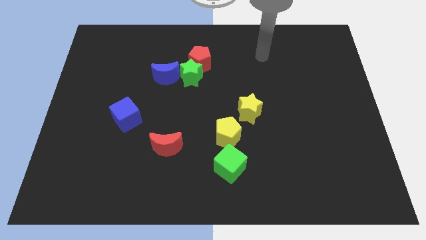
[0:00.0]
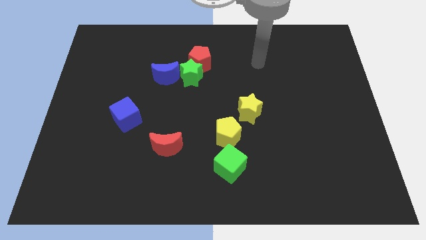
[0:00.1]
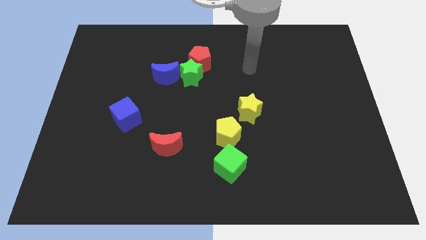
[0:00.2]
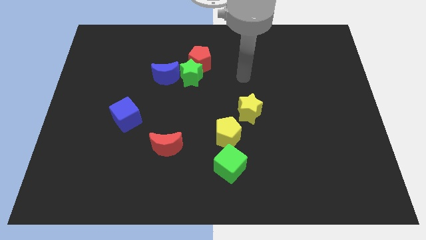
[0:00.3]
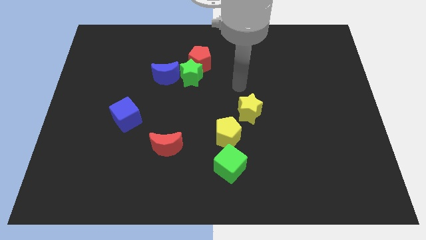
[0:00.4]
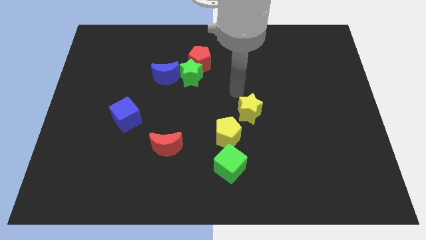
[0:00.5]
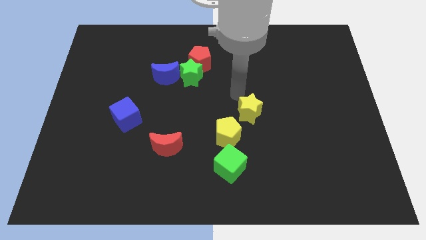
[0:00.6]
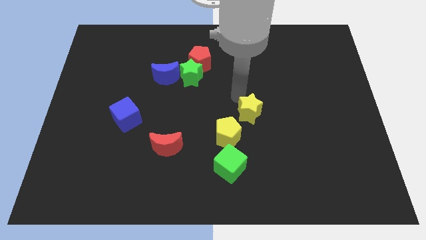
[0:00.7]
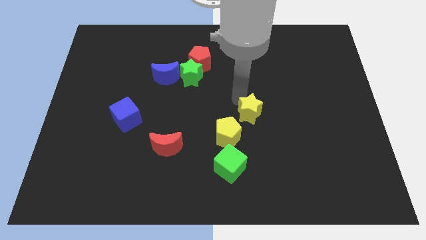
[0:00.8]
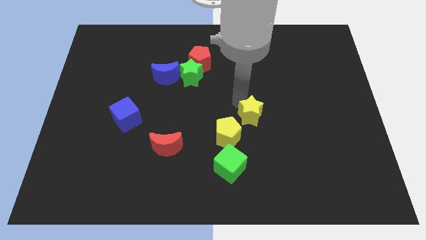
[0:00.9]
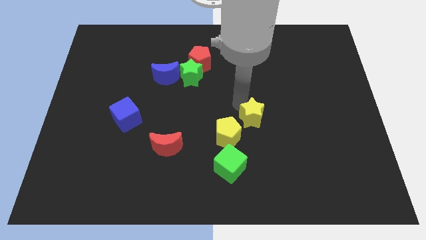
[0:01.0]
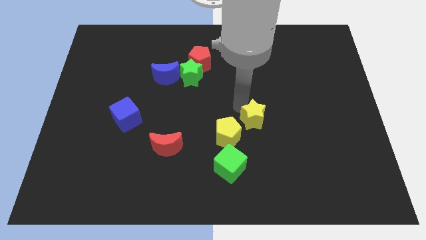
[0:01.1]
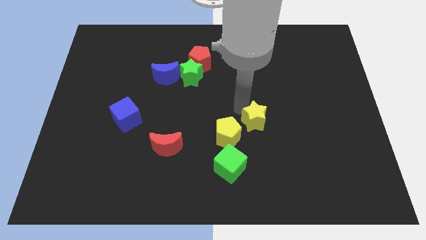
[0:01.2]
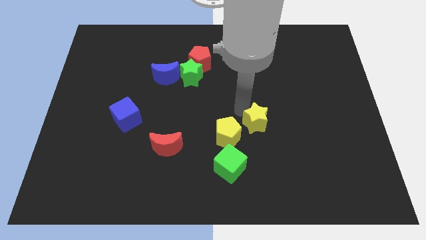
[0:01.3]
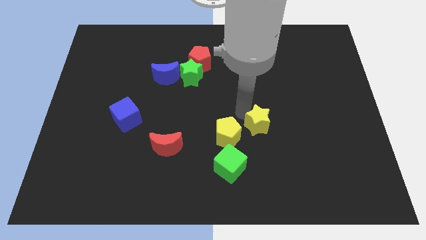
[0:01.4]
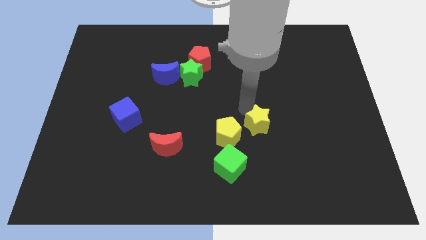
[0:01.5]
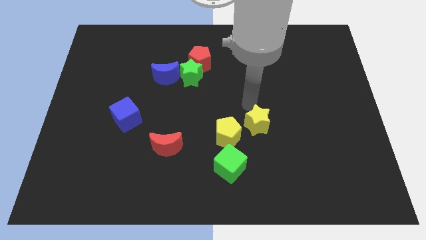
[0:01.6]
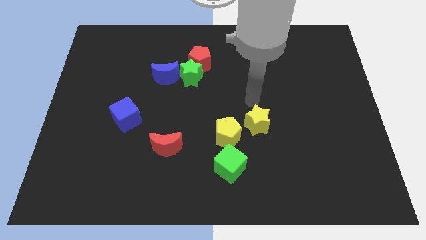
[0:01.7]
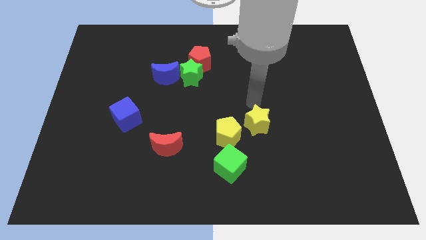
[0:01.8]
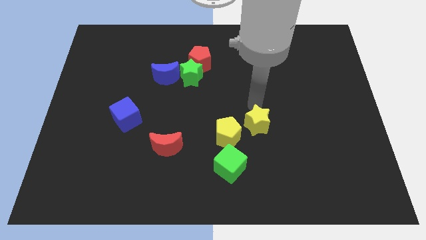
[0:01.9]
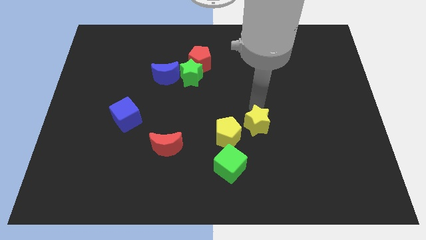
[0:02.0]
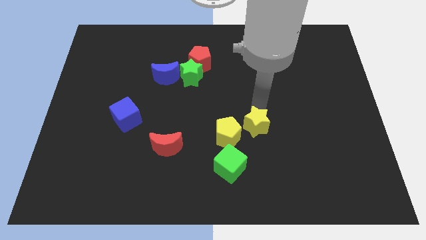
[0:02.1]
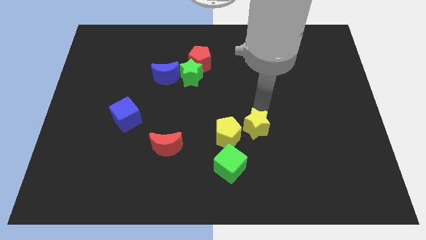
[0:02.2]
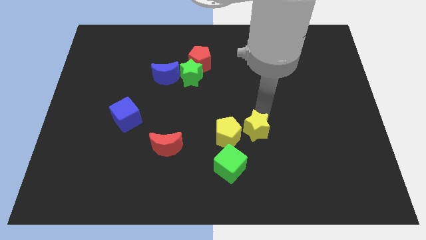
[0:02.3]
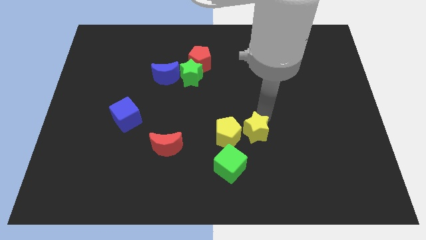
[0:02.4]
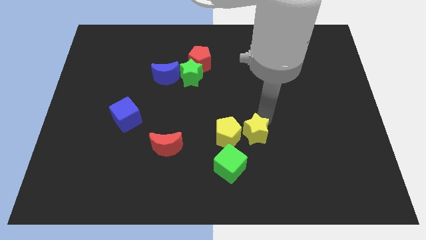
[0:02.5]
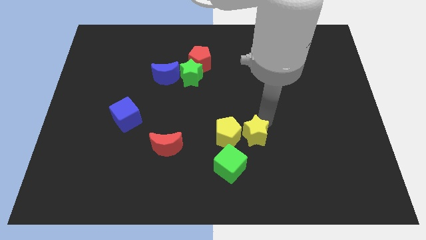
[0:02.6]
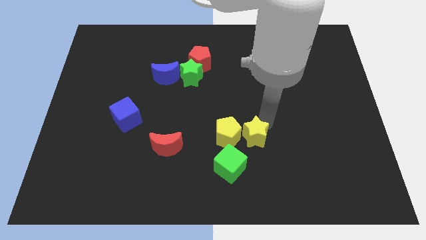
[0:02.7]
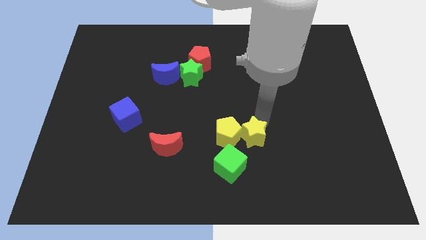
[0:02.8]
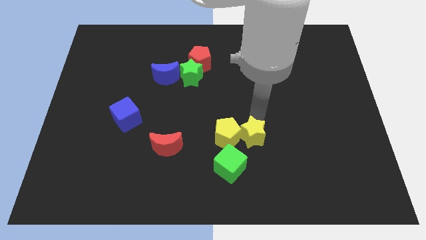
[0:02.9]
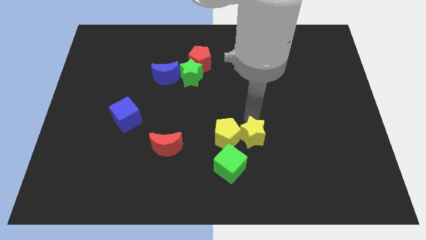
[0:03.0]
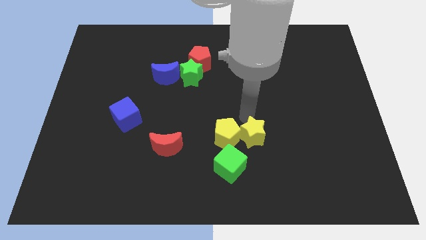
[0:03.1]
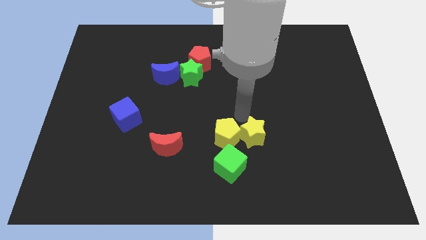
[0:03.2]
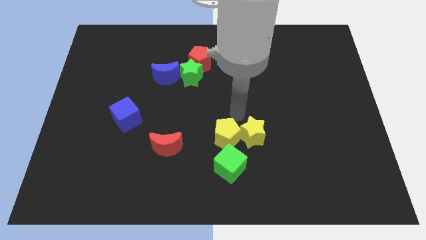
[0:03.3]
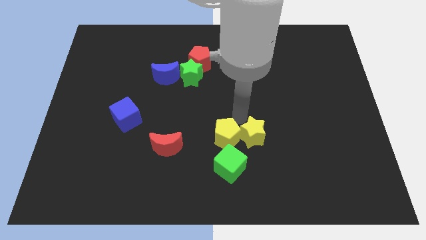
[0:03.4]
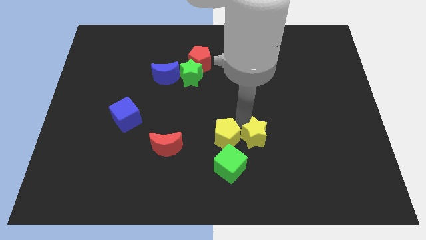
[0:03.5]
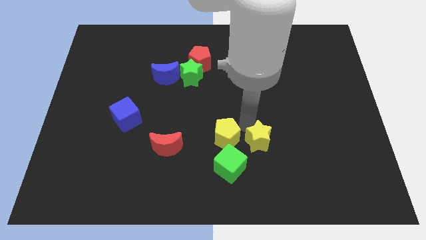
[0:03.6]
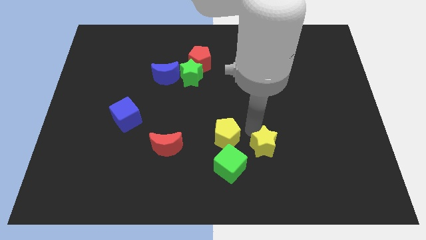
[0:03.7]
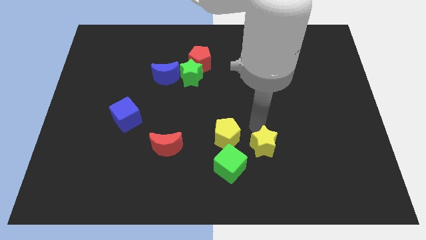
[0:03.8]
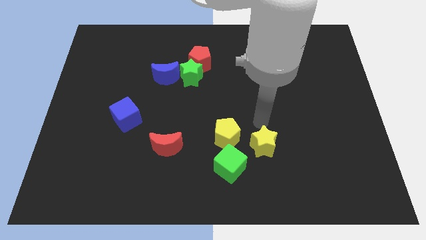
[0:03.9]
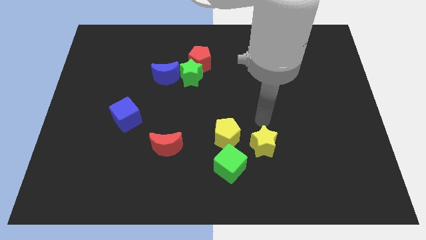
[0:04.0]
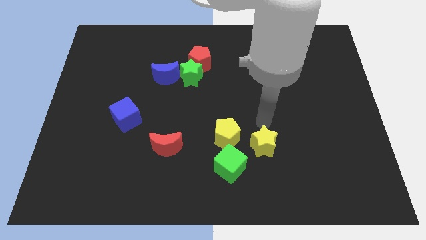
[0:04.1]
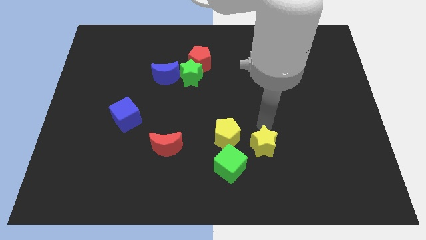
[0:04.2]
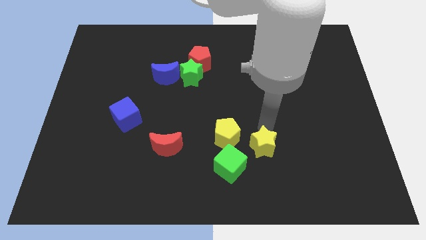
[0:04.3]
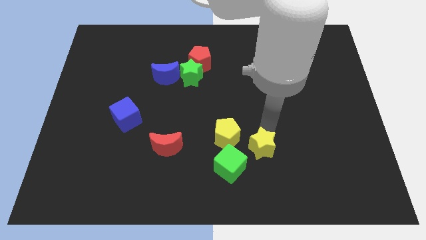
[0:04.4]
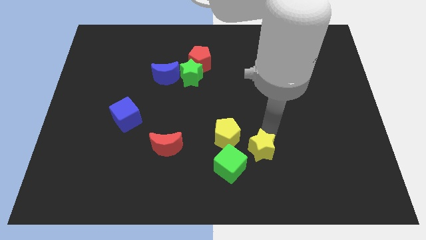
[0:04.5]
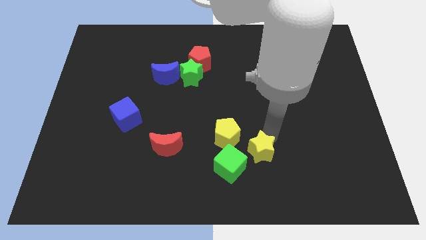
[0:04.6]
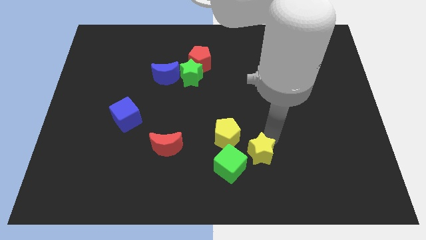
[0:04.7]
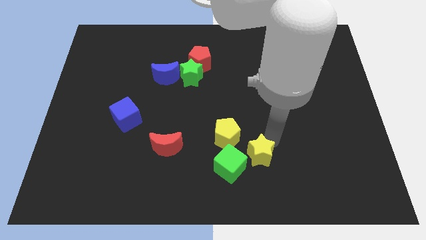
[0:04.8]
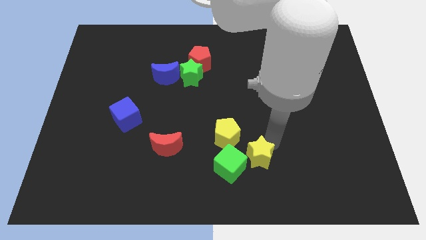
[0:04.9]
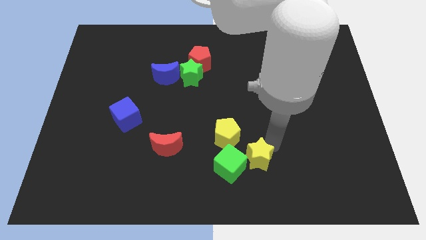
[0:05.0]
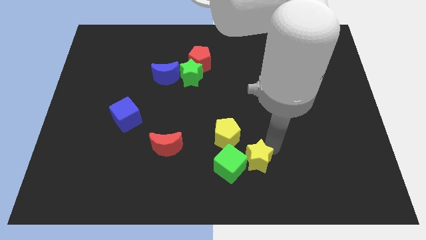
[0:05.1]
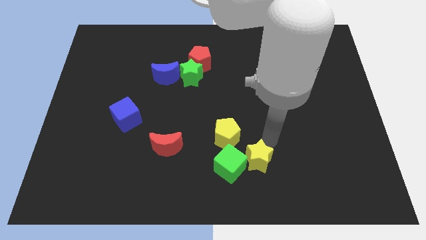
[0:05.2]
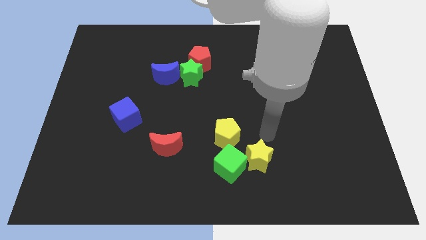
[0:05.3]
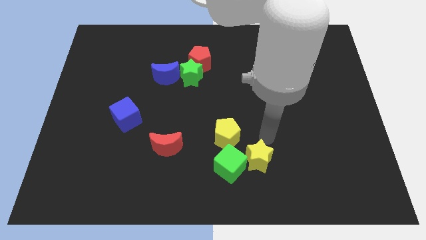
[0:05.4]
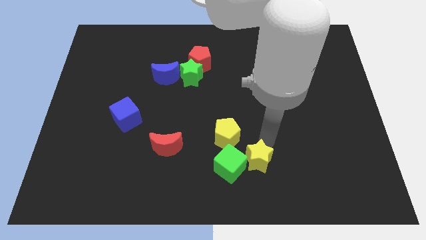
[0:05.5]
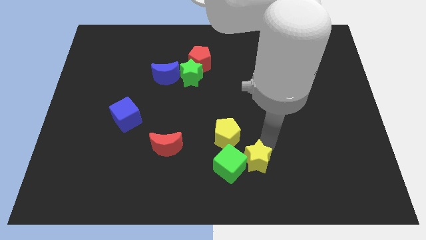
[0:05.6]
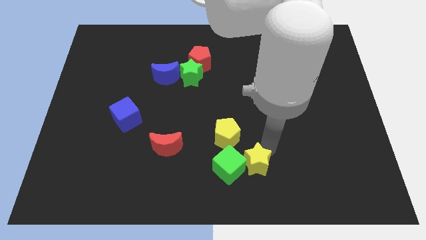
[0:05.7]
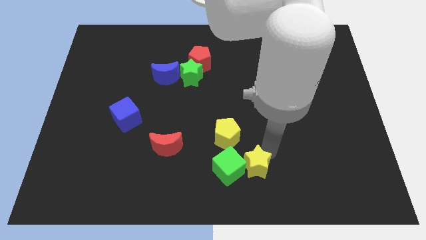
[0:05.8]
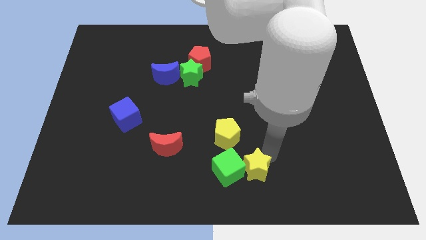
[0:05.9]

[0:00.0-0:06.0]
put the yellow star to the bottom side

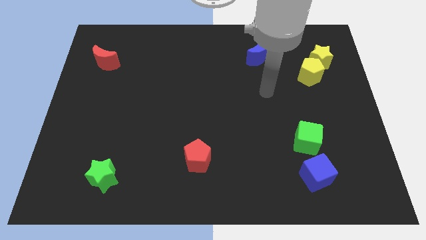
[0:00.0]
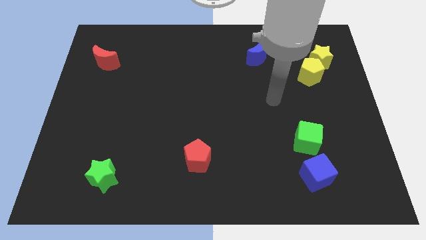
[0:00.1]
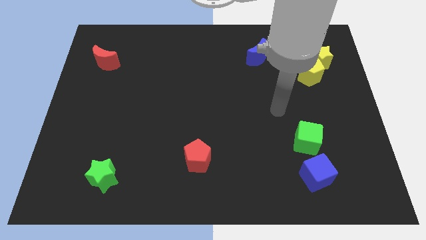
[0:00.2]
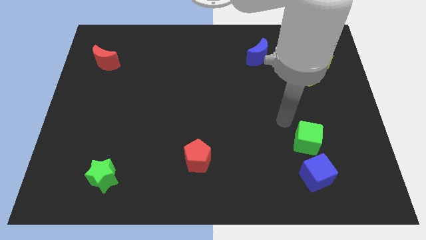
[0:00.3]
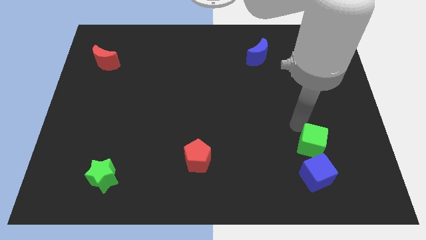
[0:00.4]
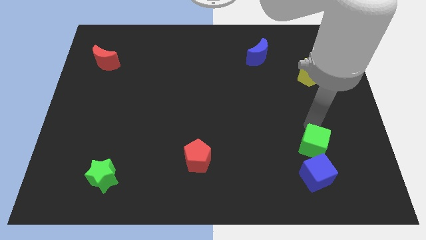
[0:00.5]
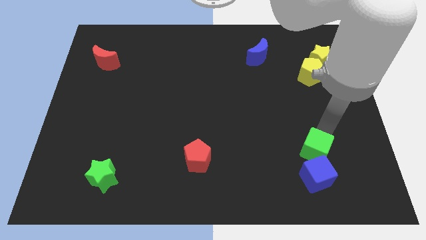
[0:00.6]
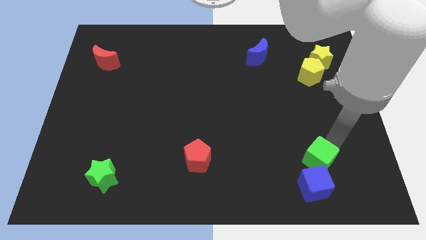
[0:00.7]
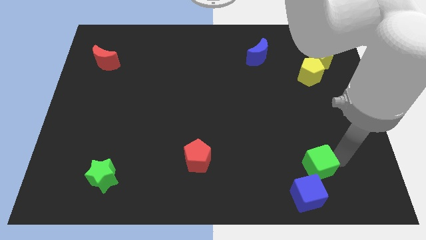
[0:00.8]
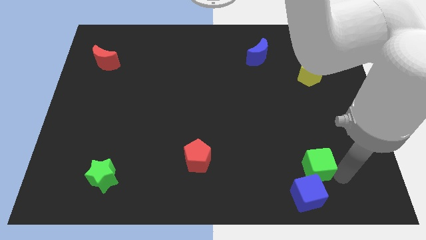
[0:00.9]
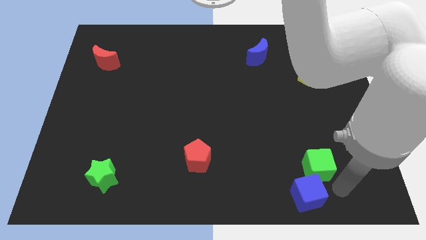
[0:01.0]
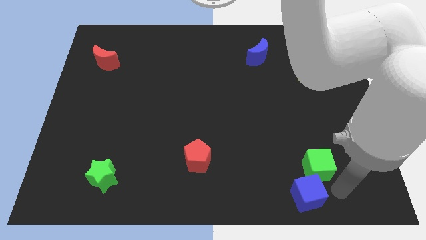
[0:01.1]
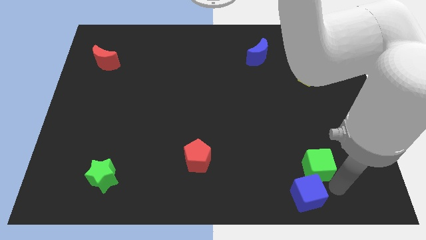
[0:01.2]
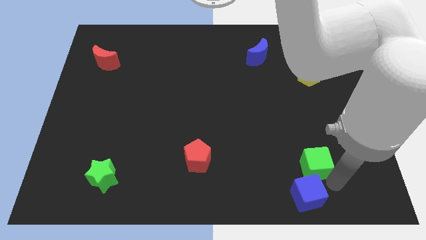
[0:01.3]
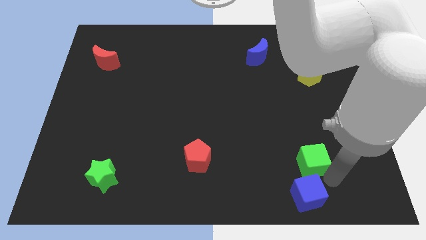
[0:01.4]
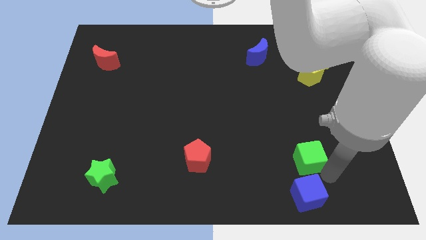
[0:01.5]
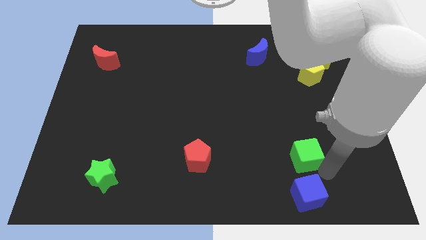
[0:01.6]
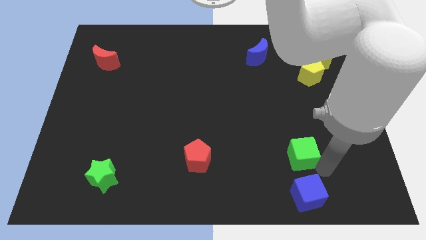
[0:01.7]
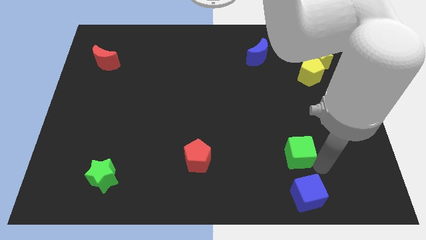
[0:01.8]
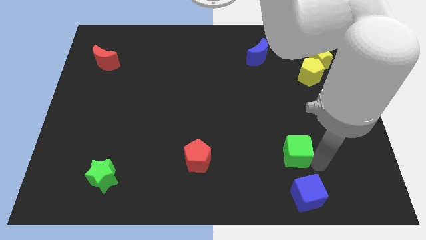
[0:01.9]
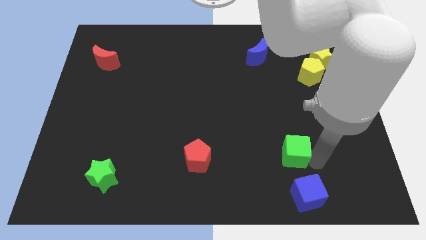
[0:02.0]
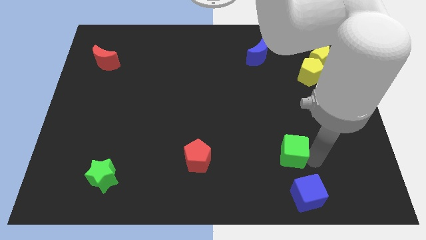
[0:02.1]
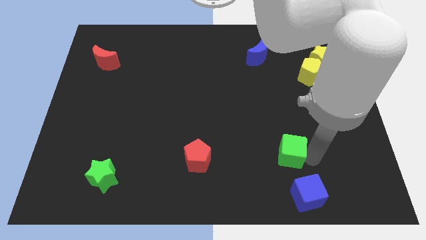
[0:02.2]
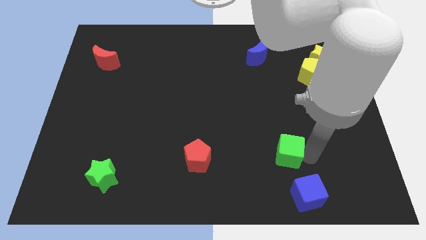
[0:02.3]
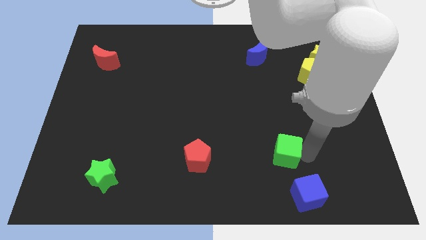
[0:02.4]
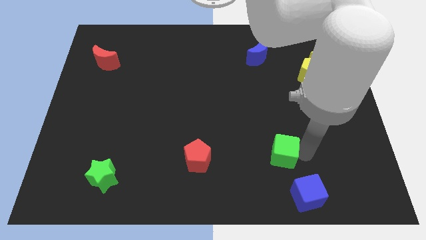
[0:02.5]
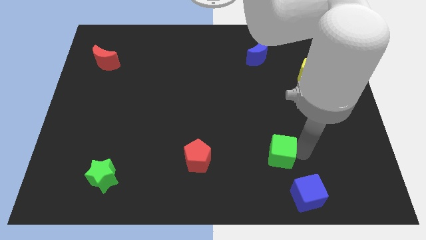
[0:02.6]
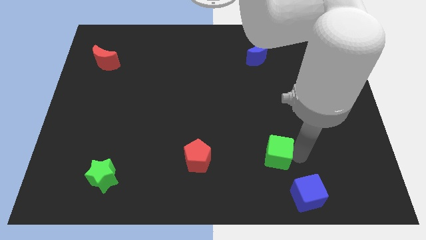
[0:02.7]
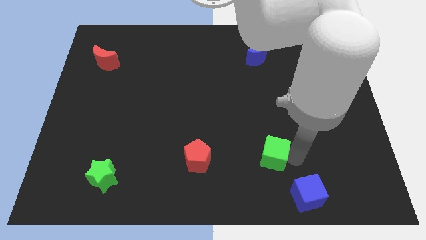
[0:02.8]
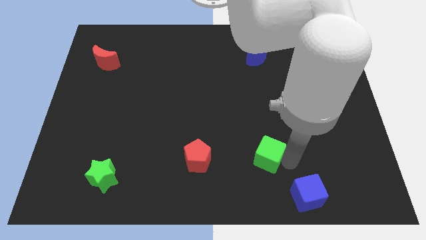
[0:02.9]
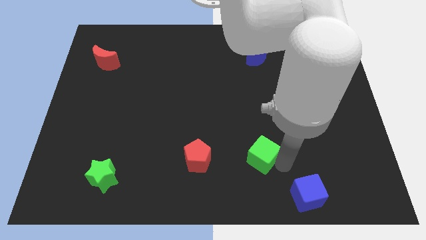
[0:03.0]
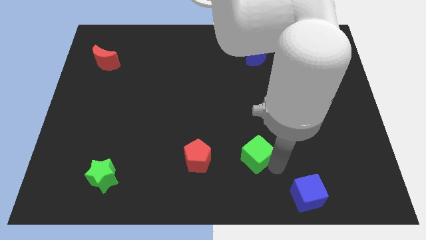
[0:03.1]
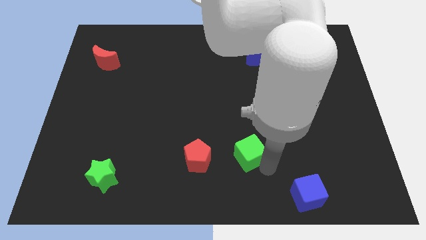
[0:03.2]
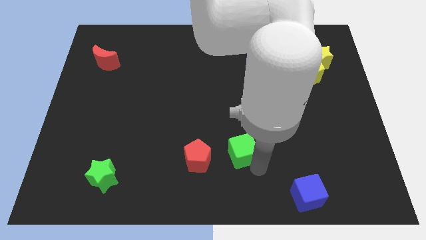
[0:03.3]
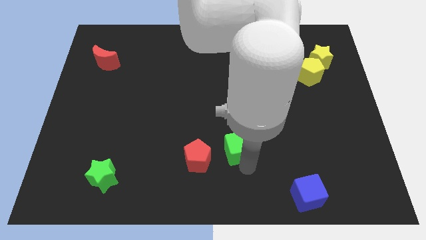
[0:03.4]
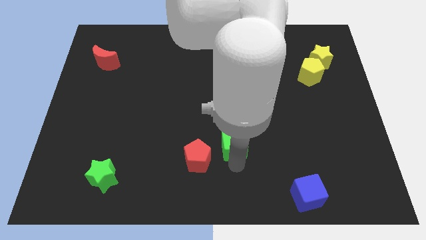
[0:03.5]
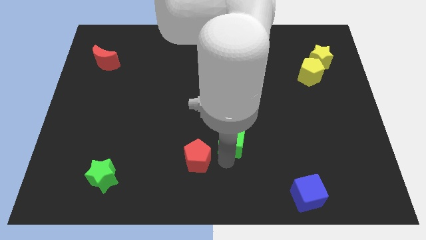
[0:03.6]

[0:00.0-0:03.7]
push the green cube to the middle
